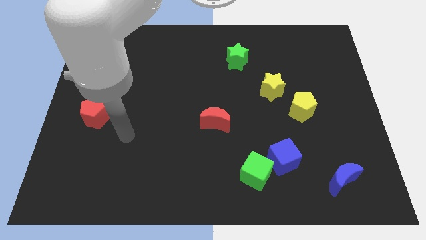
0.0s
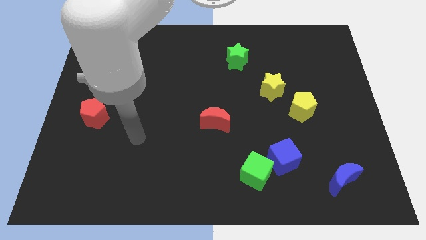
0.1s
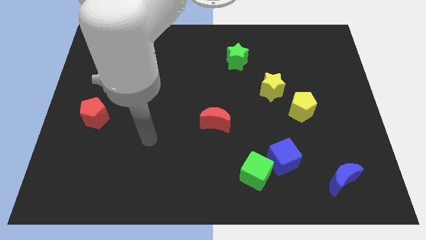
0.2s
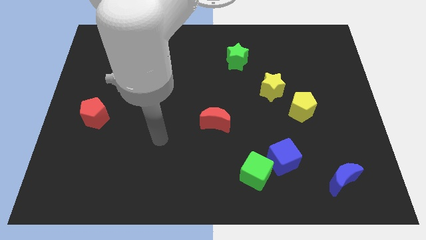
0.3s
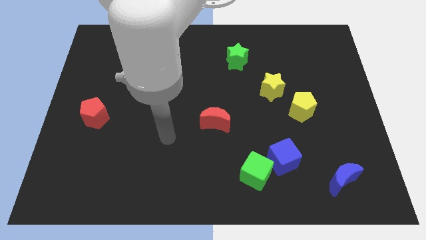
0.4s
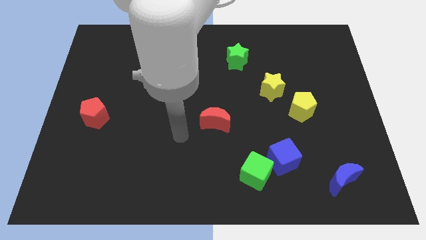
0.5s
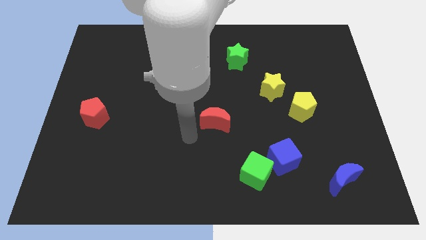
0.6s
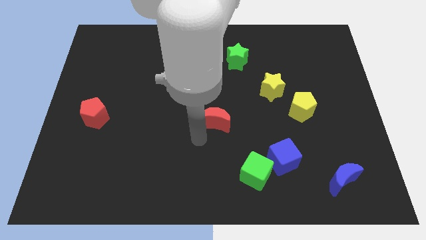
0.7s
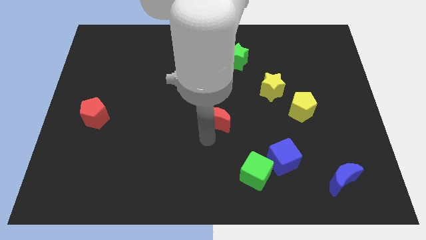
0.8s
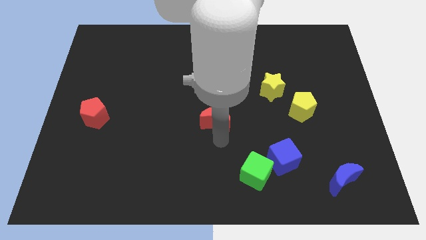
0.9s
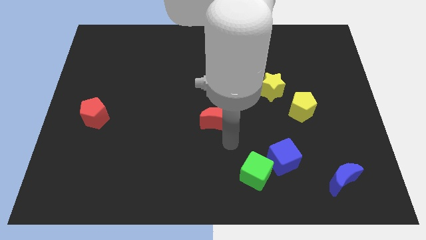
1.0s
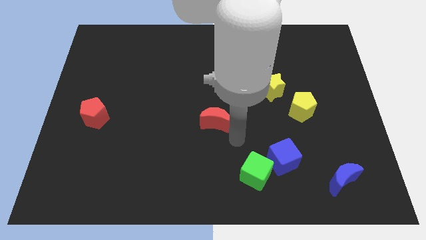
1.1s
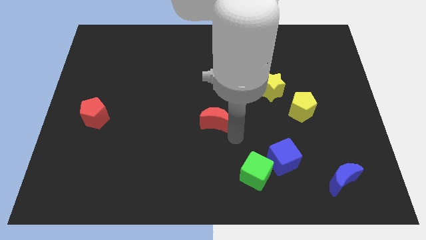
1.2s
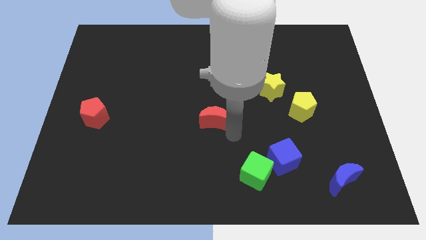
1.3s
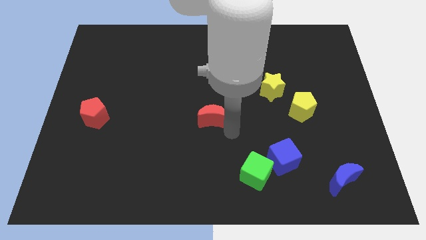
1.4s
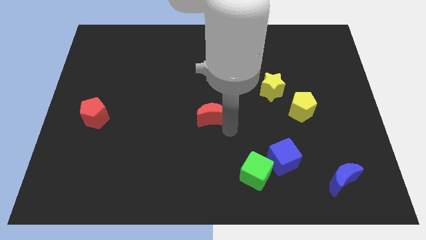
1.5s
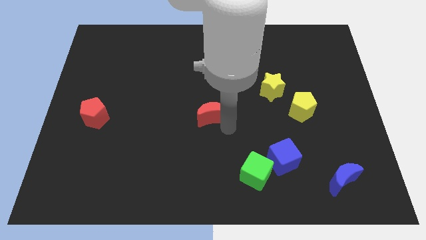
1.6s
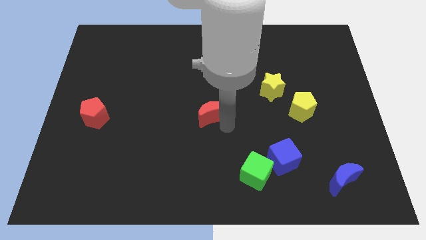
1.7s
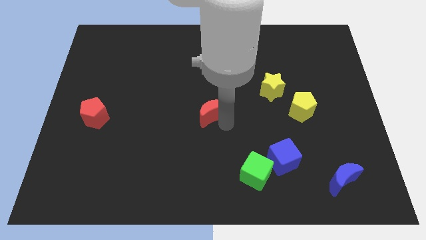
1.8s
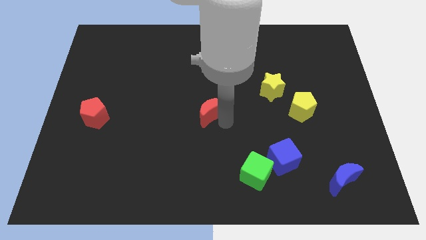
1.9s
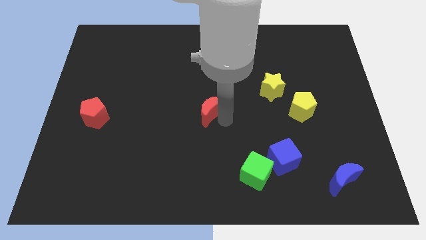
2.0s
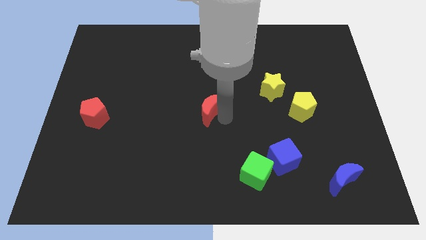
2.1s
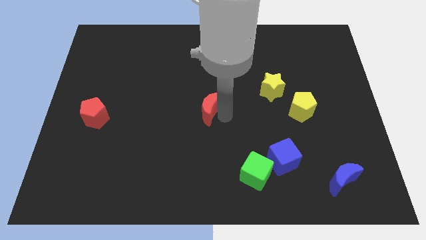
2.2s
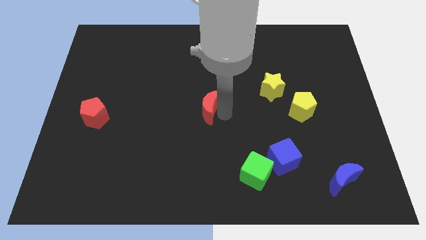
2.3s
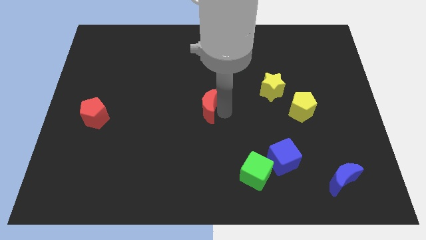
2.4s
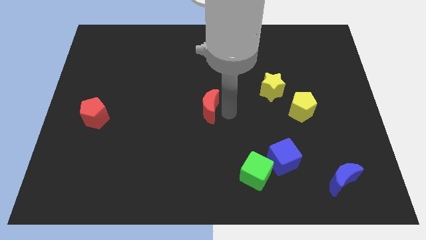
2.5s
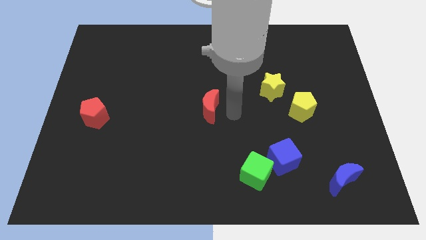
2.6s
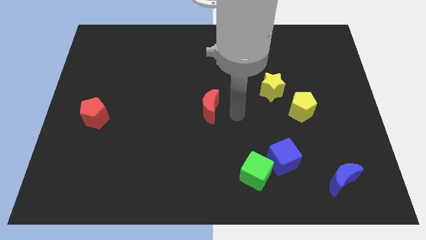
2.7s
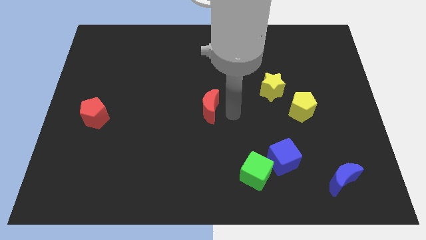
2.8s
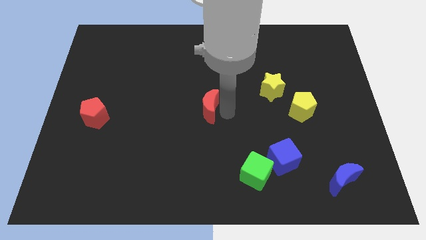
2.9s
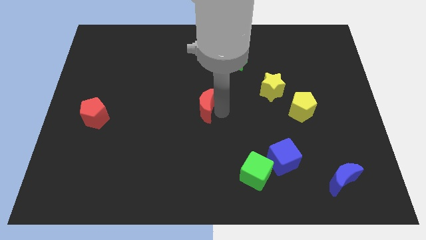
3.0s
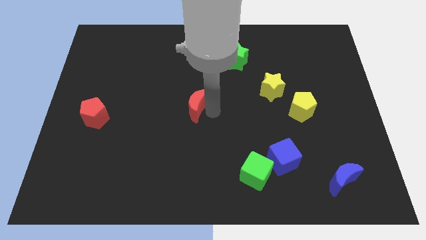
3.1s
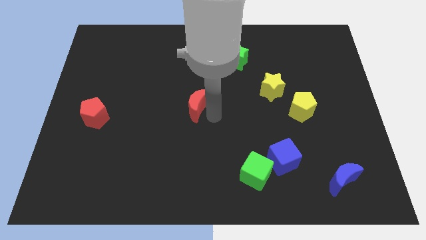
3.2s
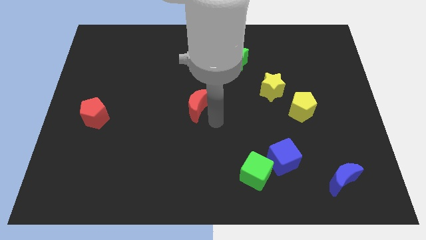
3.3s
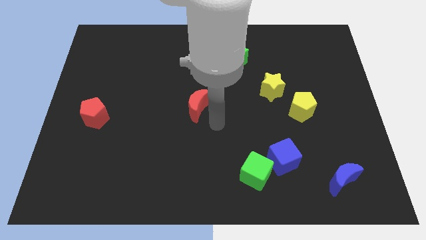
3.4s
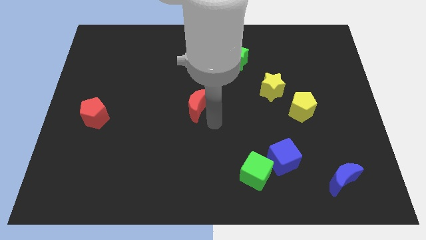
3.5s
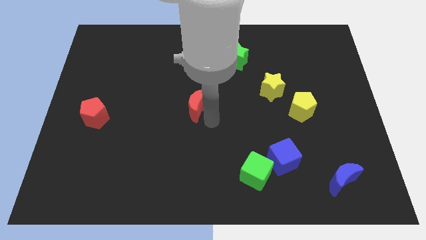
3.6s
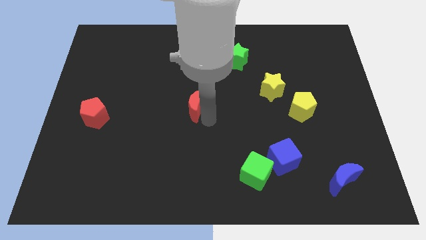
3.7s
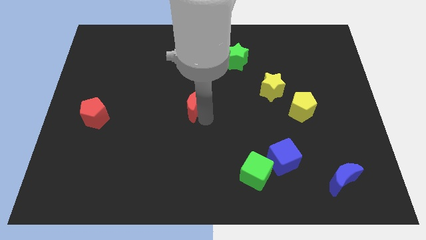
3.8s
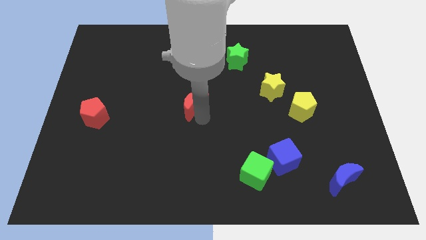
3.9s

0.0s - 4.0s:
slide the red moon diagonally upwards and to the left a bit

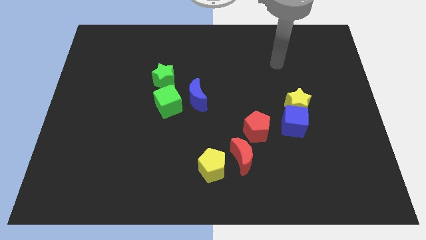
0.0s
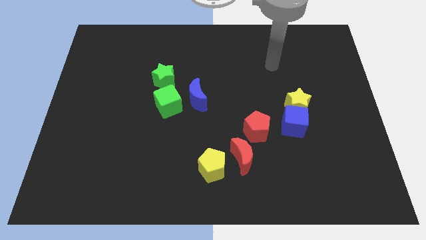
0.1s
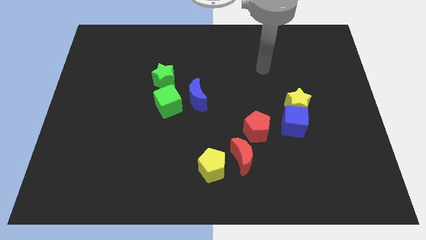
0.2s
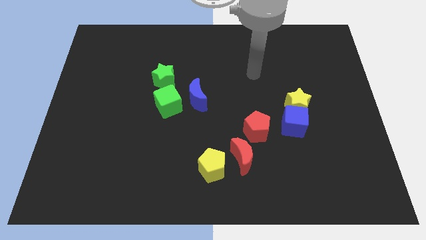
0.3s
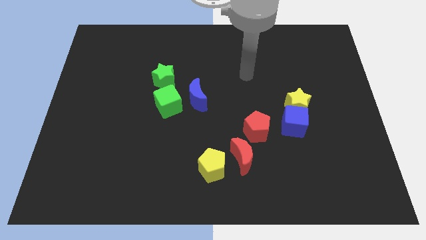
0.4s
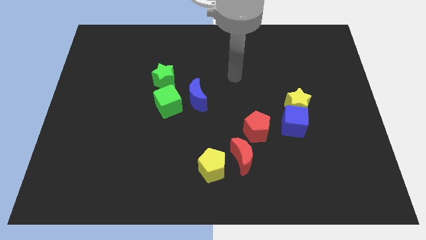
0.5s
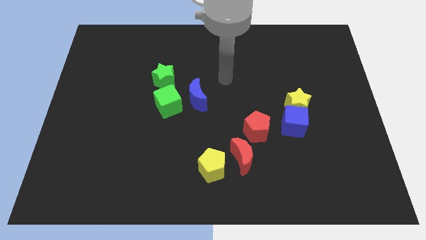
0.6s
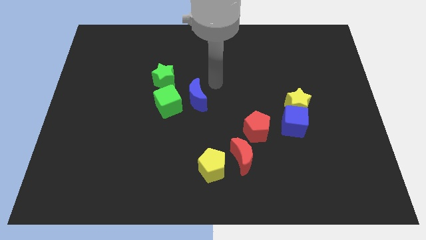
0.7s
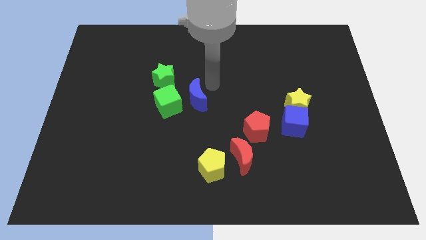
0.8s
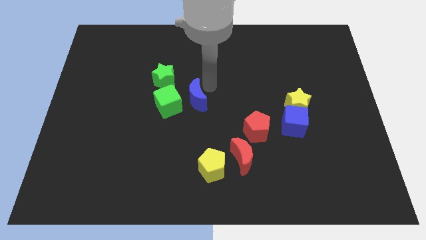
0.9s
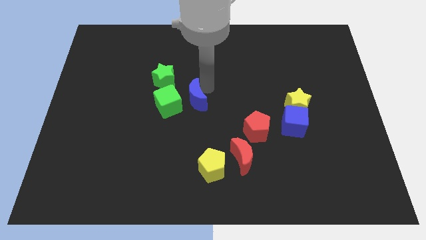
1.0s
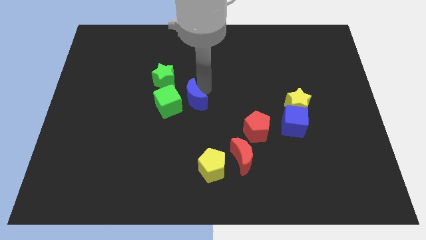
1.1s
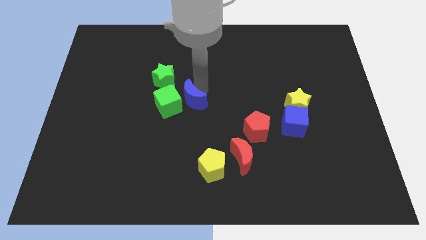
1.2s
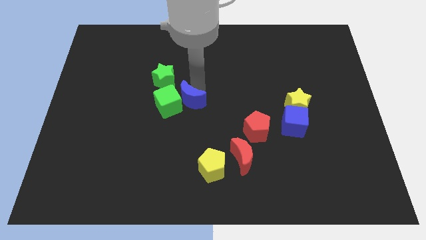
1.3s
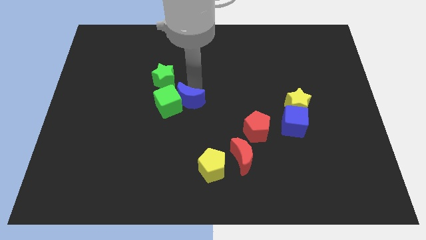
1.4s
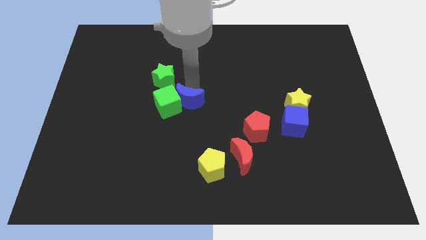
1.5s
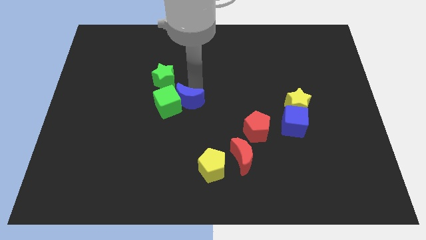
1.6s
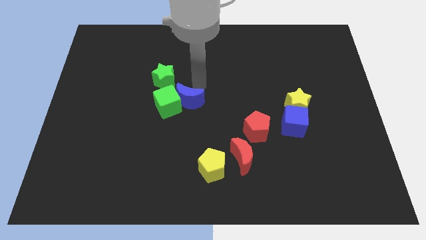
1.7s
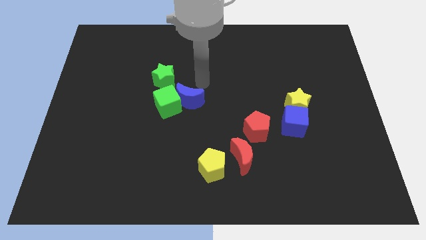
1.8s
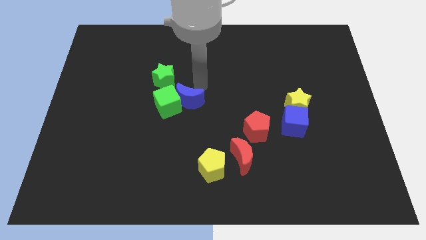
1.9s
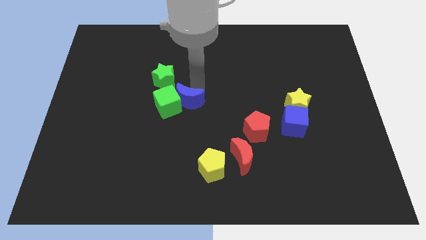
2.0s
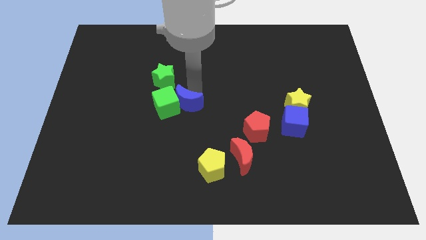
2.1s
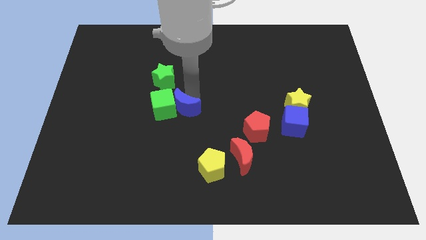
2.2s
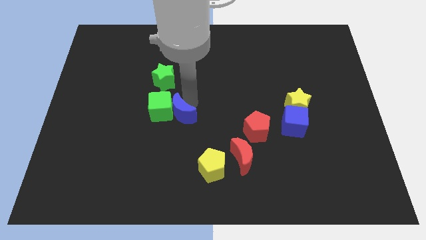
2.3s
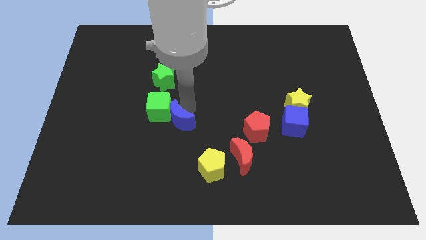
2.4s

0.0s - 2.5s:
push the blue moon somewhat downwards and left

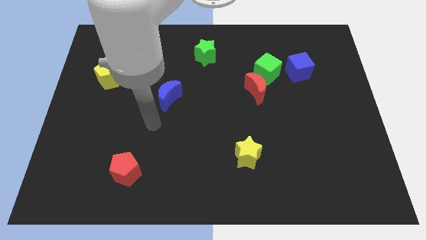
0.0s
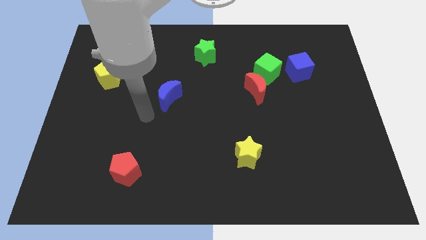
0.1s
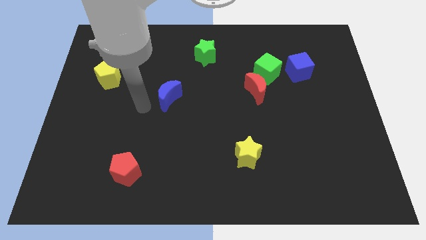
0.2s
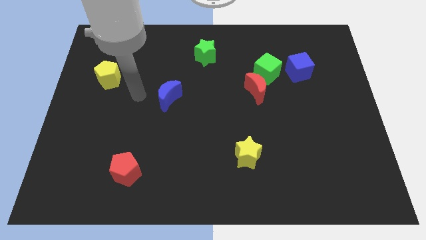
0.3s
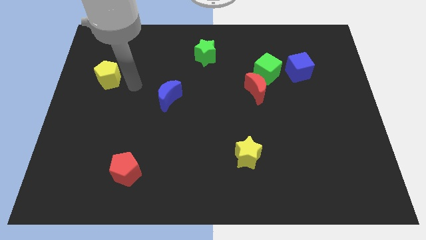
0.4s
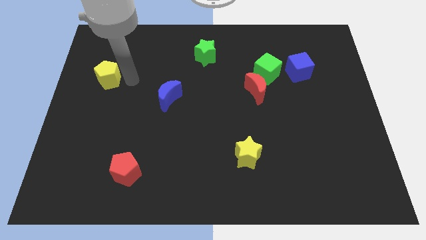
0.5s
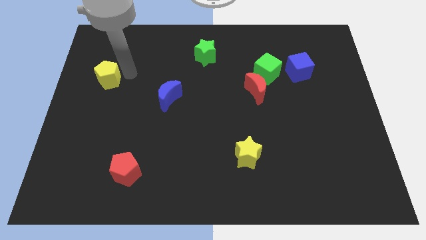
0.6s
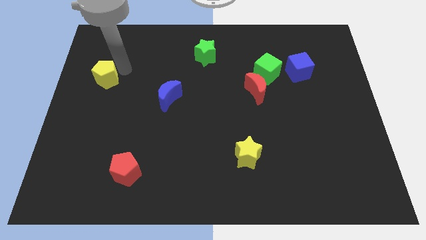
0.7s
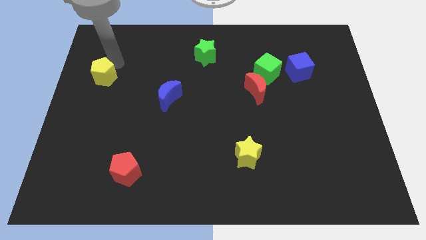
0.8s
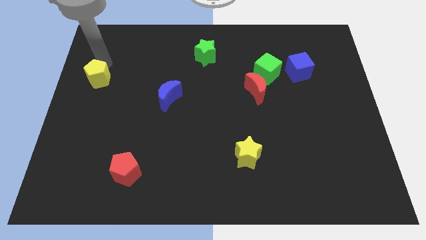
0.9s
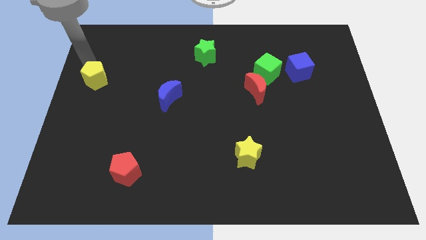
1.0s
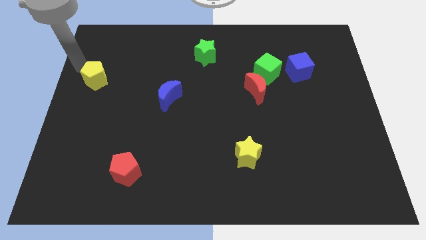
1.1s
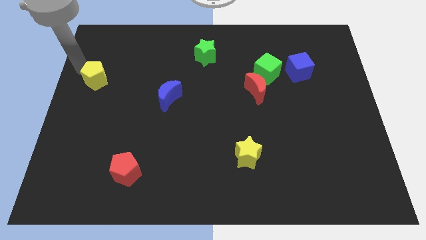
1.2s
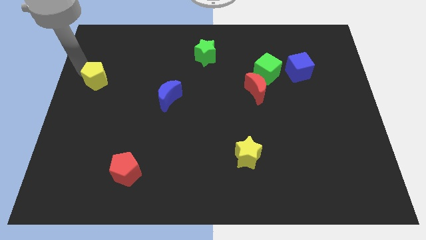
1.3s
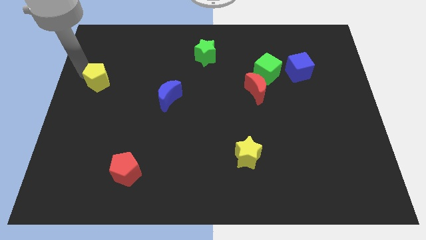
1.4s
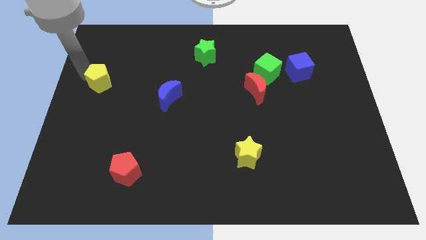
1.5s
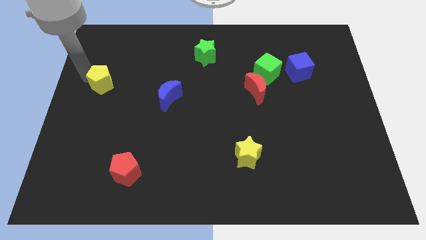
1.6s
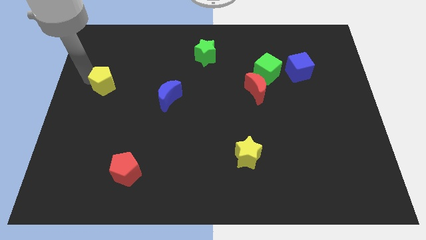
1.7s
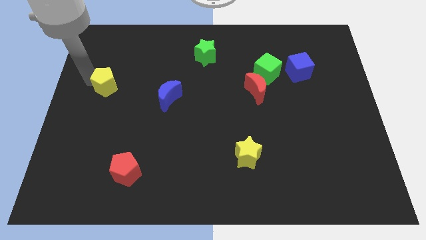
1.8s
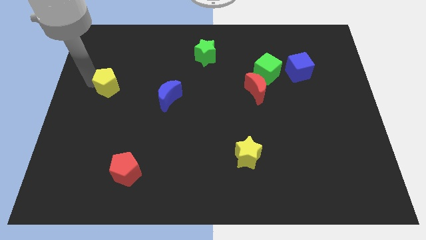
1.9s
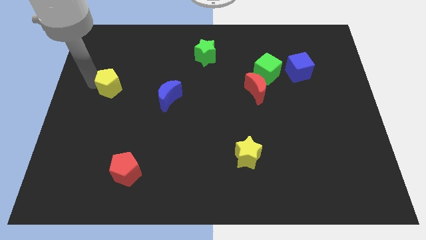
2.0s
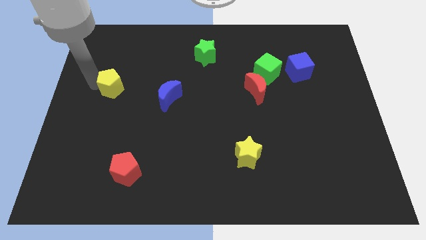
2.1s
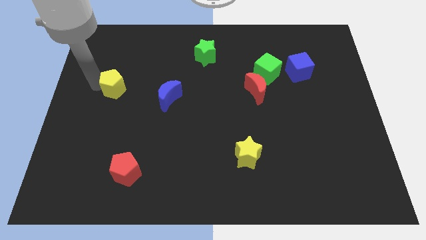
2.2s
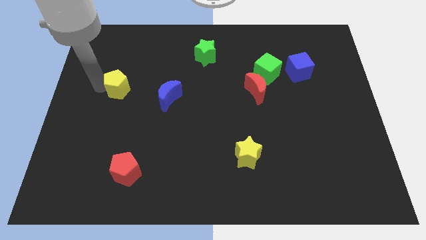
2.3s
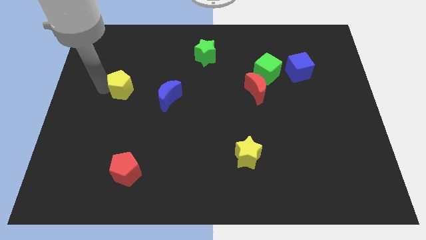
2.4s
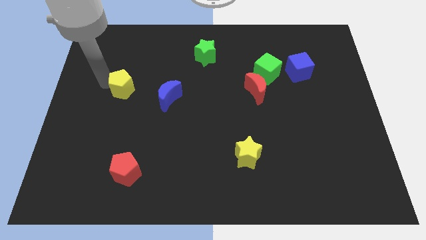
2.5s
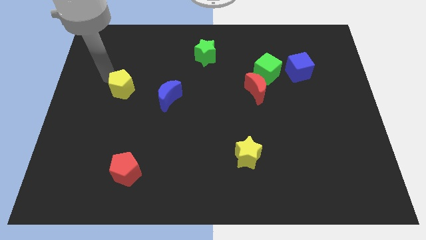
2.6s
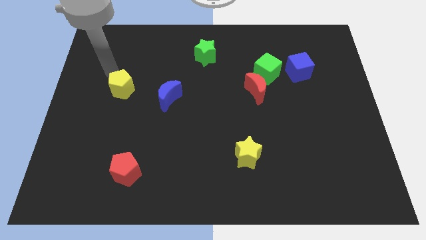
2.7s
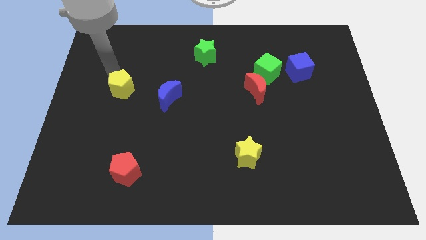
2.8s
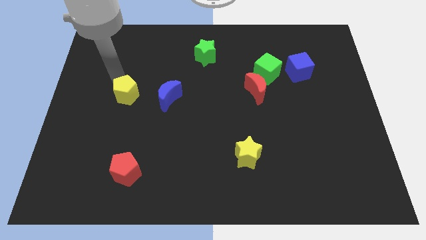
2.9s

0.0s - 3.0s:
slightly move the yellow pentagon downwards and then to the right
